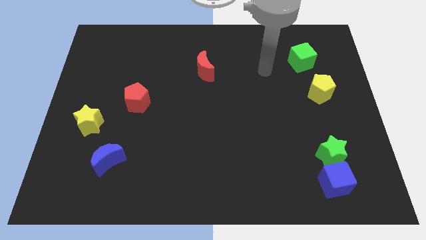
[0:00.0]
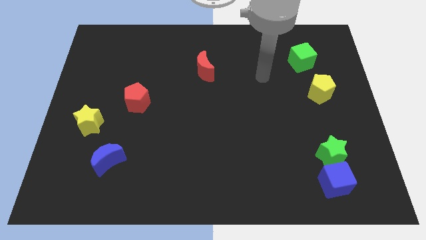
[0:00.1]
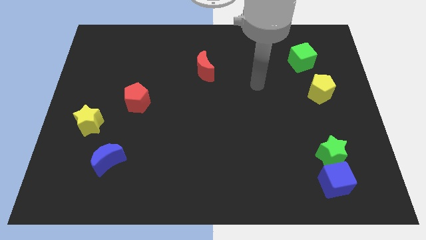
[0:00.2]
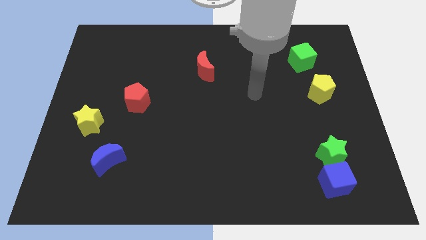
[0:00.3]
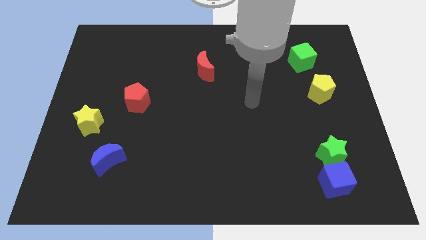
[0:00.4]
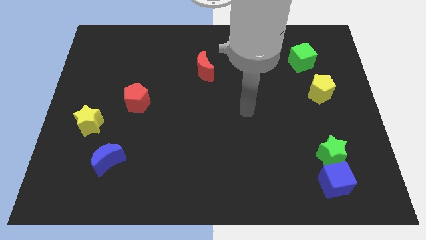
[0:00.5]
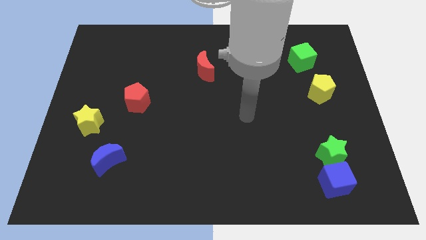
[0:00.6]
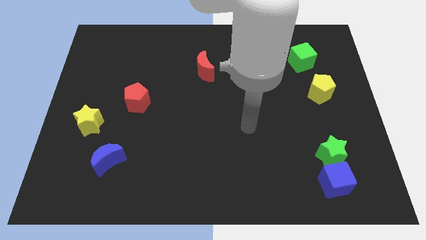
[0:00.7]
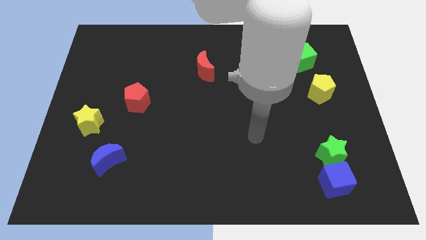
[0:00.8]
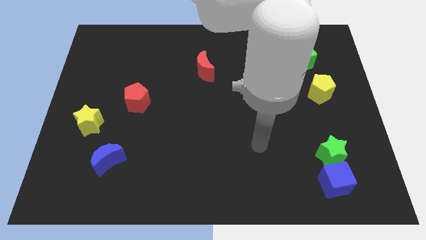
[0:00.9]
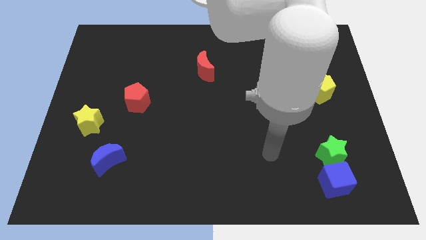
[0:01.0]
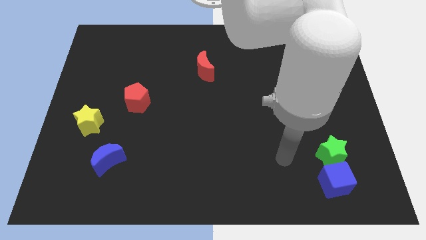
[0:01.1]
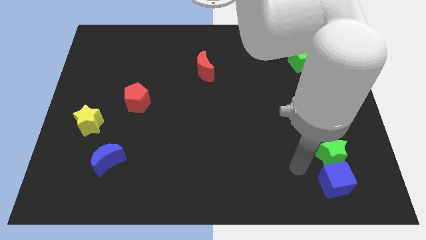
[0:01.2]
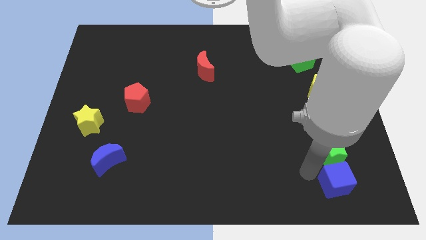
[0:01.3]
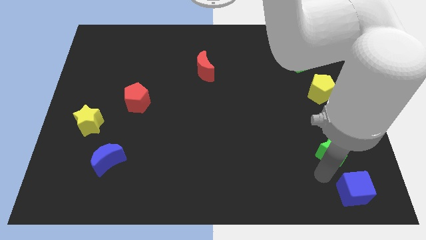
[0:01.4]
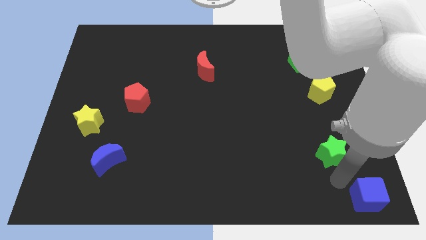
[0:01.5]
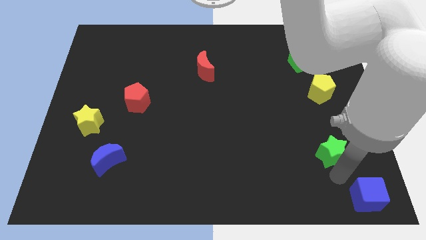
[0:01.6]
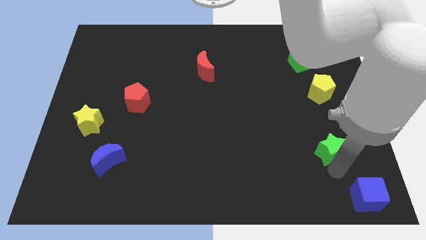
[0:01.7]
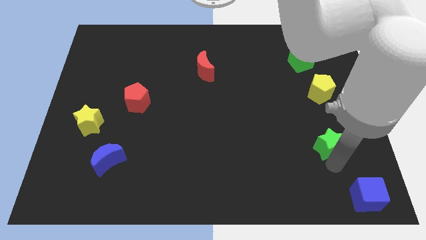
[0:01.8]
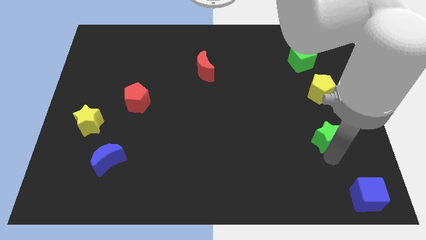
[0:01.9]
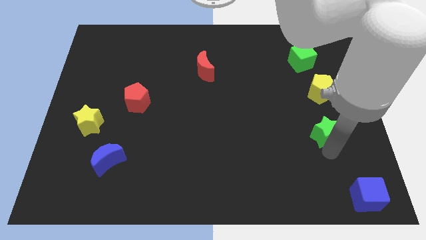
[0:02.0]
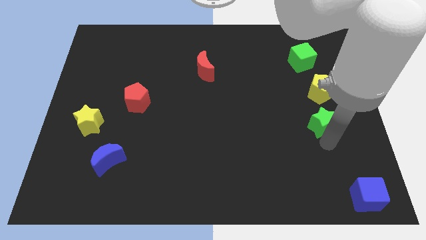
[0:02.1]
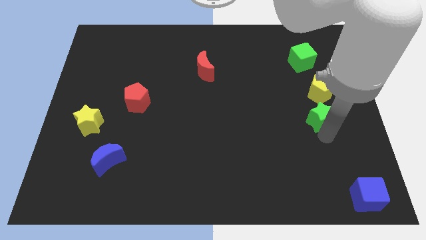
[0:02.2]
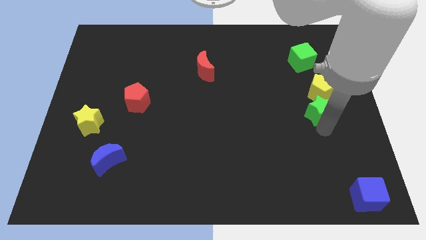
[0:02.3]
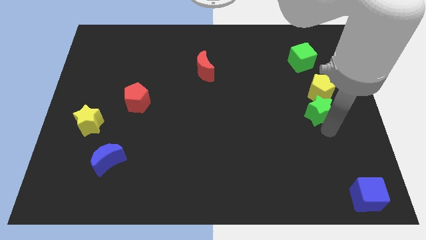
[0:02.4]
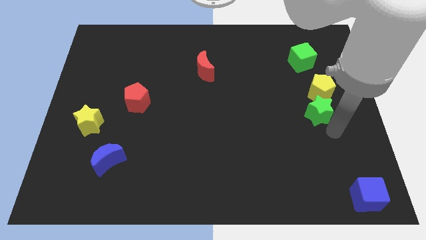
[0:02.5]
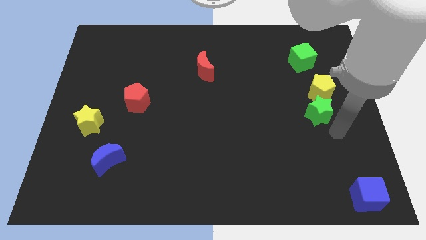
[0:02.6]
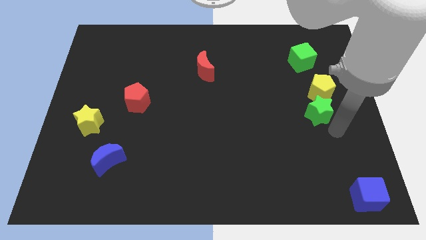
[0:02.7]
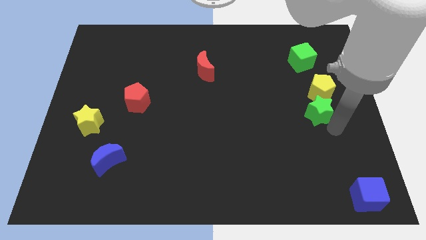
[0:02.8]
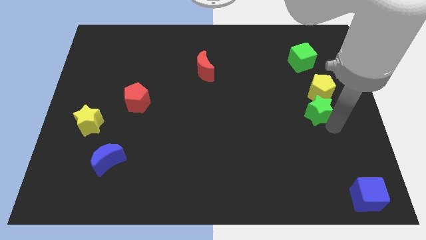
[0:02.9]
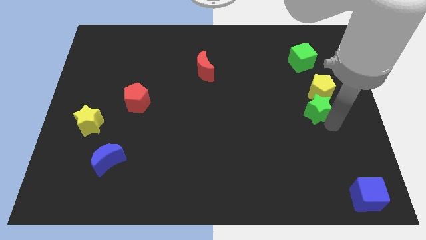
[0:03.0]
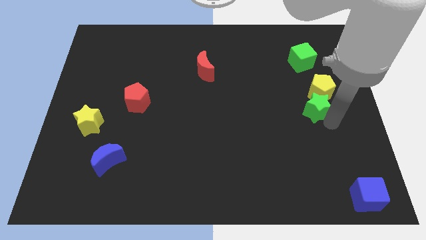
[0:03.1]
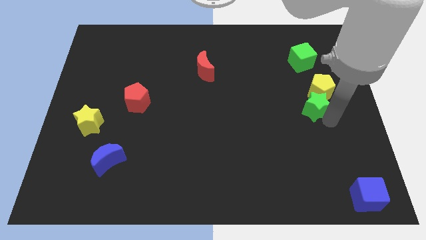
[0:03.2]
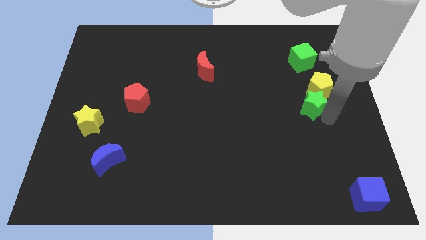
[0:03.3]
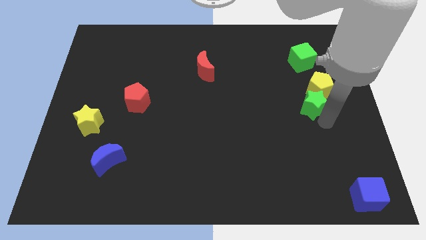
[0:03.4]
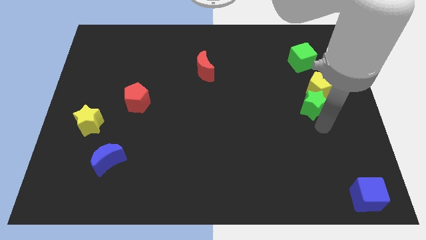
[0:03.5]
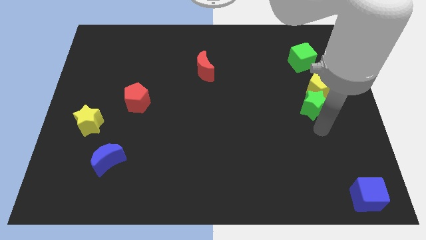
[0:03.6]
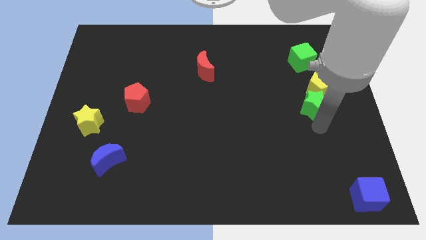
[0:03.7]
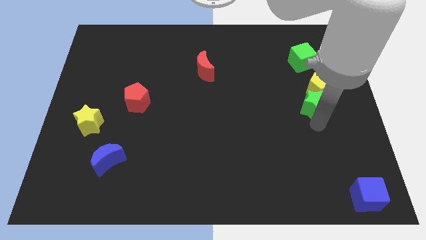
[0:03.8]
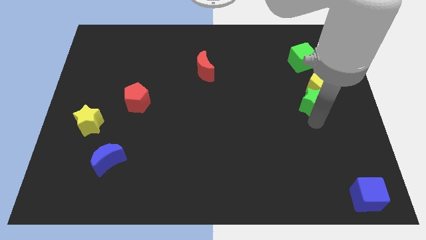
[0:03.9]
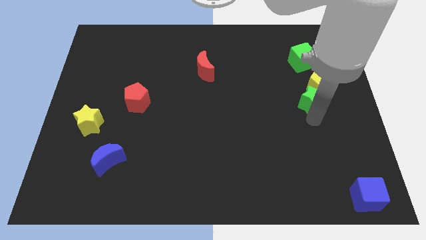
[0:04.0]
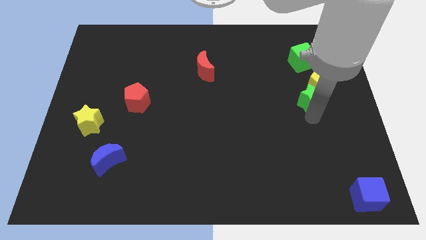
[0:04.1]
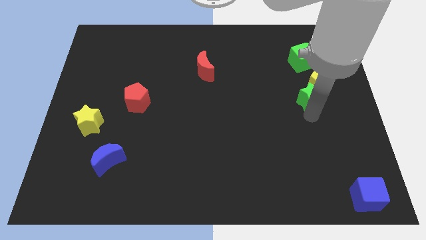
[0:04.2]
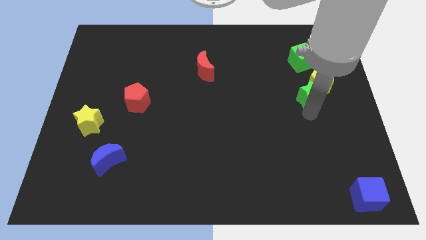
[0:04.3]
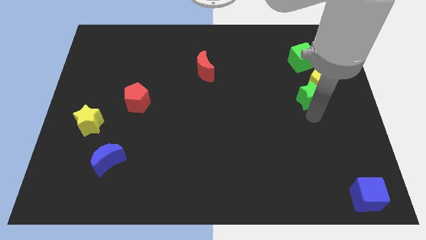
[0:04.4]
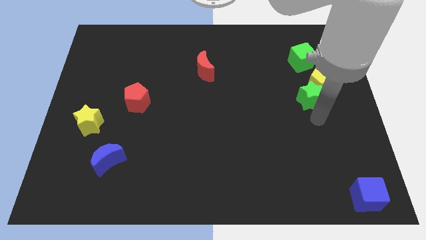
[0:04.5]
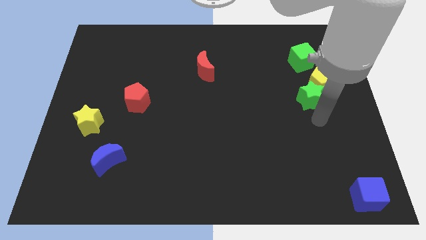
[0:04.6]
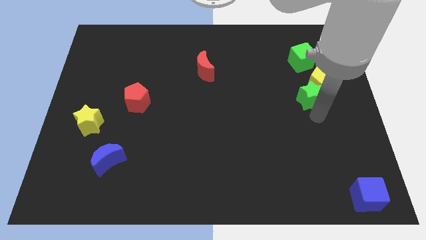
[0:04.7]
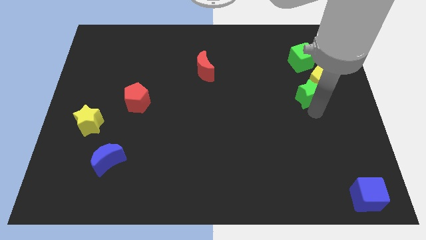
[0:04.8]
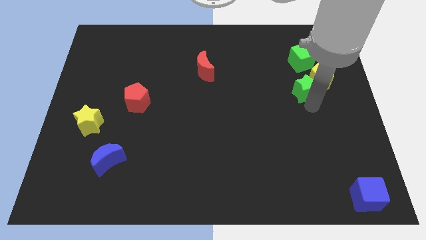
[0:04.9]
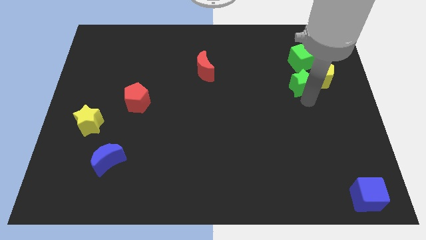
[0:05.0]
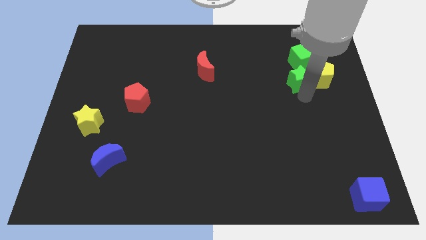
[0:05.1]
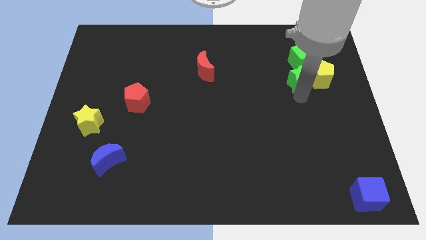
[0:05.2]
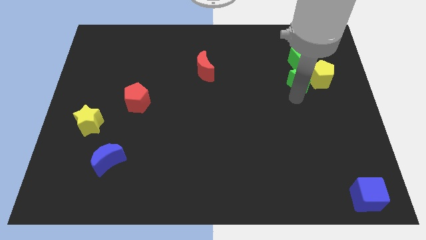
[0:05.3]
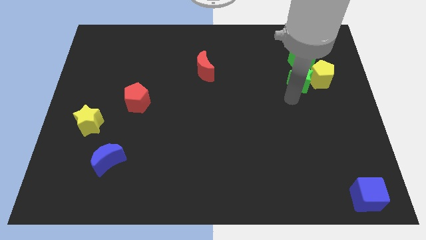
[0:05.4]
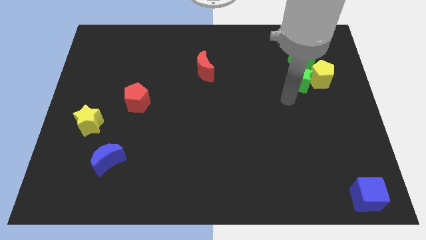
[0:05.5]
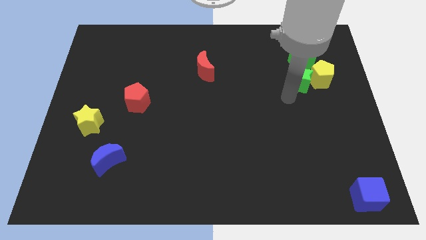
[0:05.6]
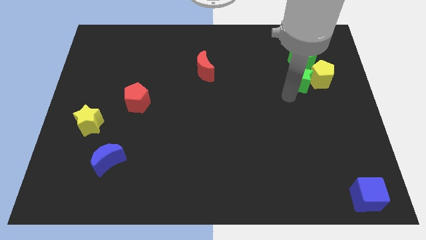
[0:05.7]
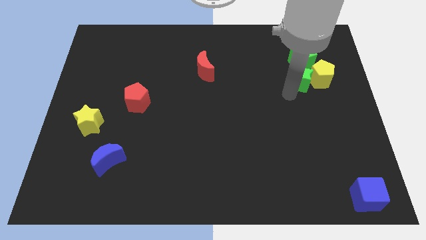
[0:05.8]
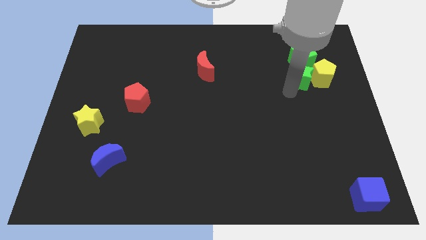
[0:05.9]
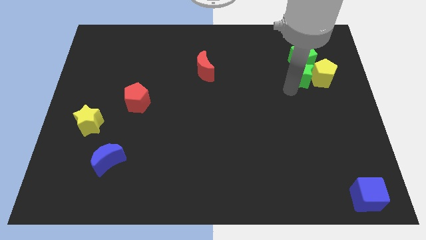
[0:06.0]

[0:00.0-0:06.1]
slide the green star towards the green cube

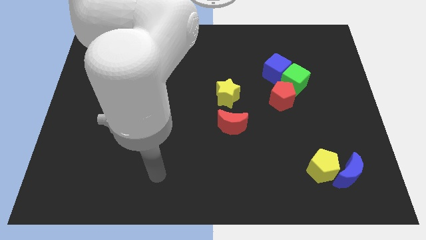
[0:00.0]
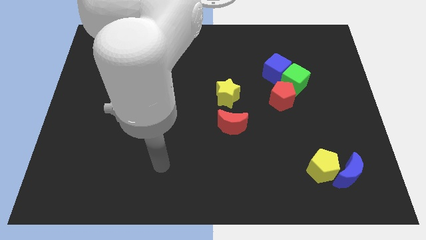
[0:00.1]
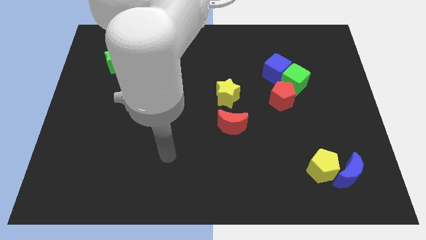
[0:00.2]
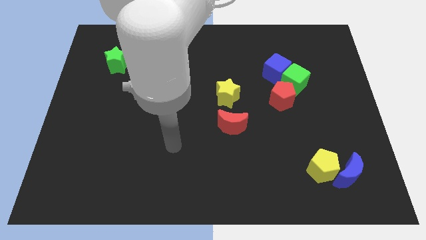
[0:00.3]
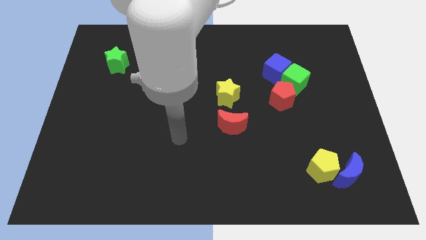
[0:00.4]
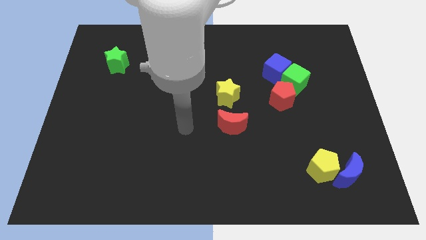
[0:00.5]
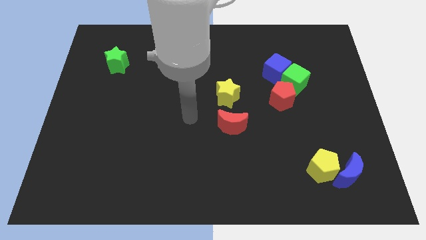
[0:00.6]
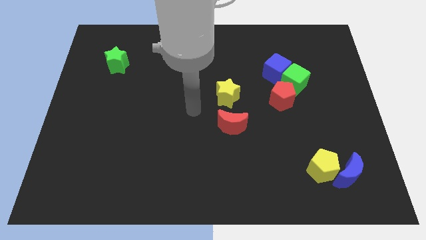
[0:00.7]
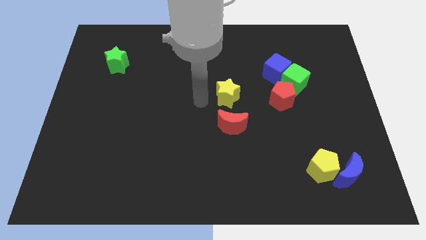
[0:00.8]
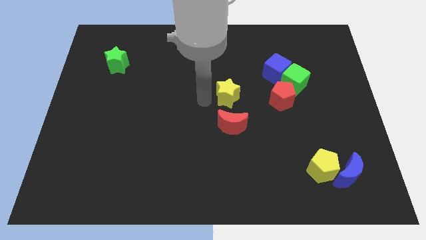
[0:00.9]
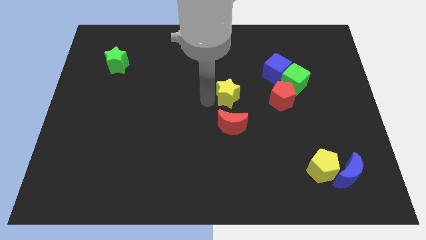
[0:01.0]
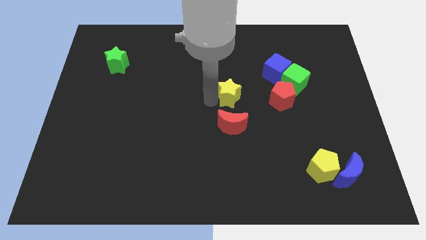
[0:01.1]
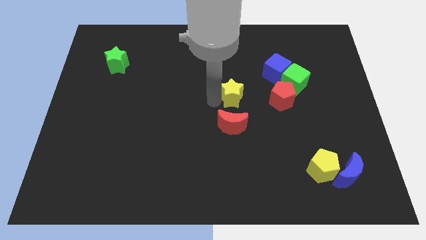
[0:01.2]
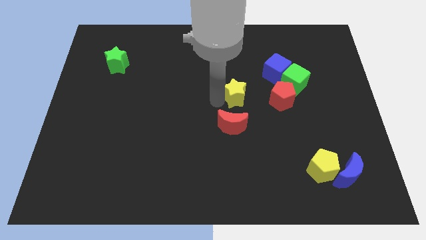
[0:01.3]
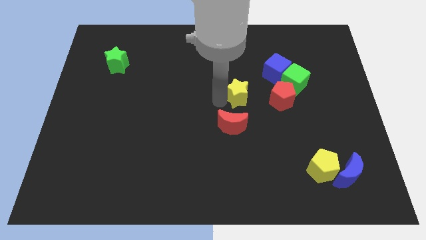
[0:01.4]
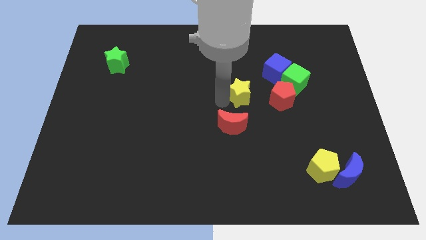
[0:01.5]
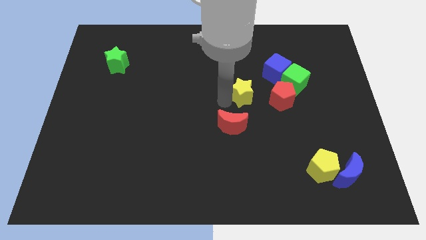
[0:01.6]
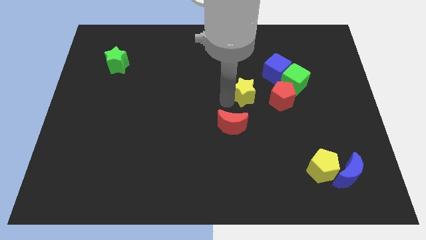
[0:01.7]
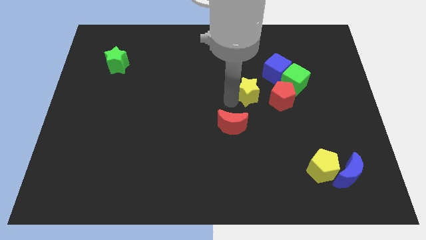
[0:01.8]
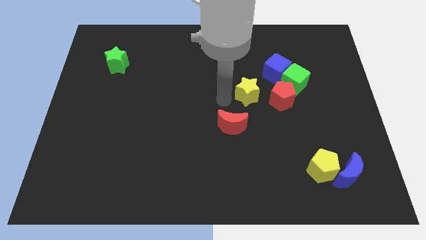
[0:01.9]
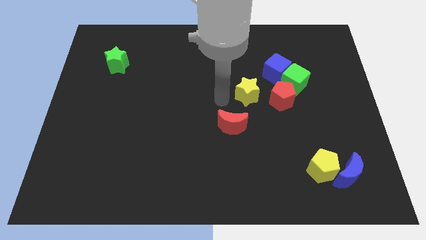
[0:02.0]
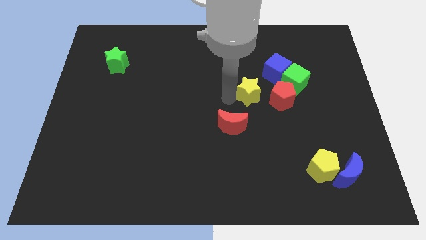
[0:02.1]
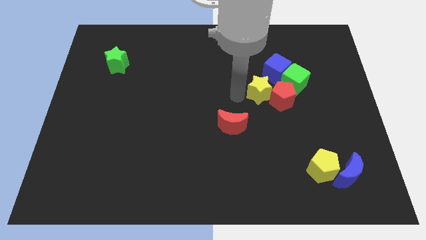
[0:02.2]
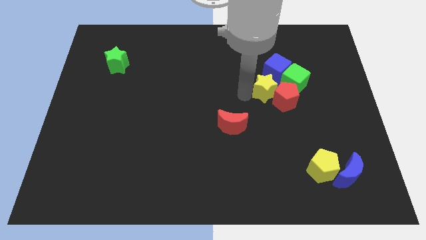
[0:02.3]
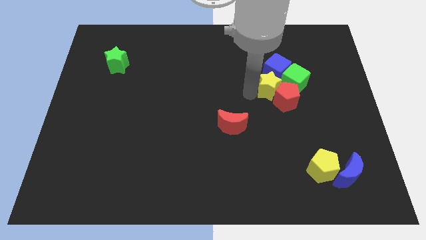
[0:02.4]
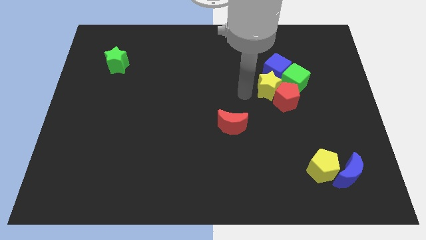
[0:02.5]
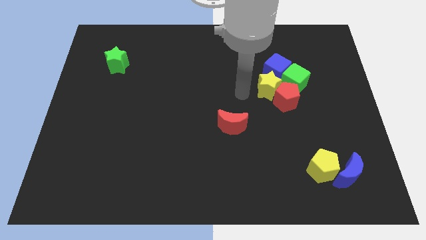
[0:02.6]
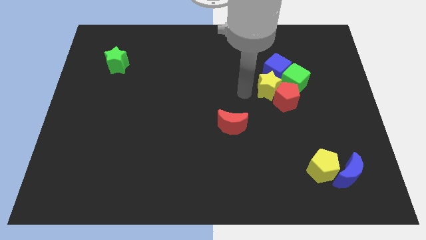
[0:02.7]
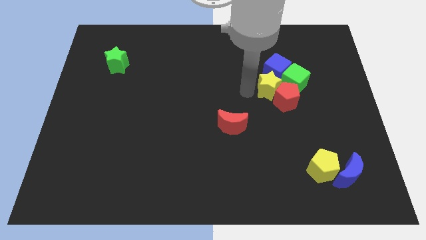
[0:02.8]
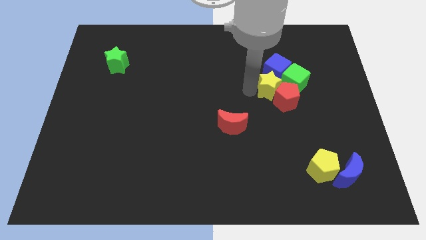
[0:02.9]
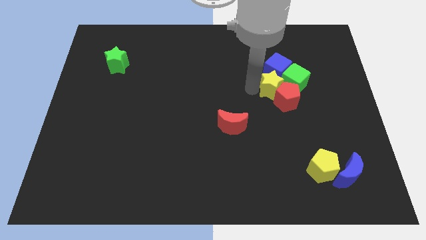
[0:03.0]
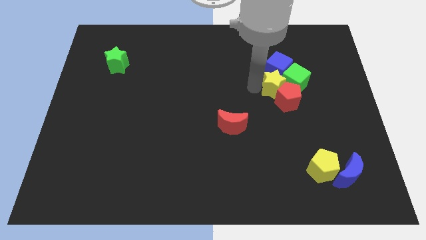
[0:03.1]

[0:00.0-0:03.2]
put the yellow star to the green cube
